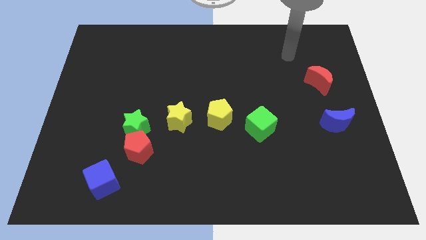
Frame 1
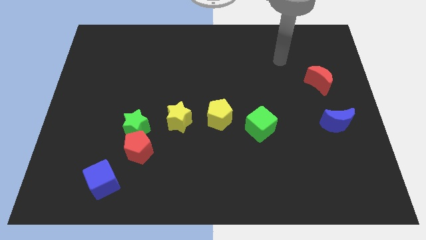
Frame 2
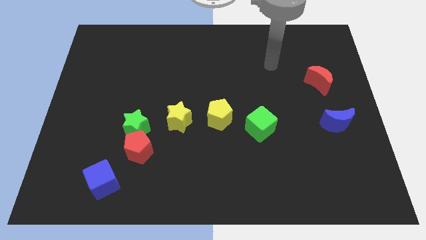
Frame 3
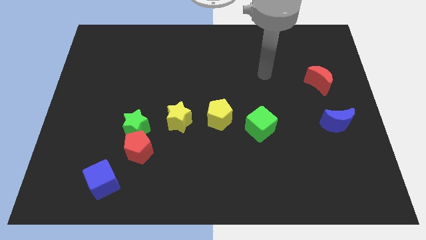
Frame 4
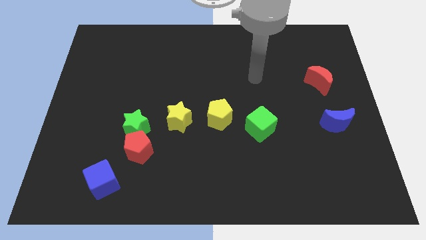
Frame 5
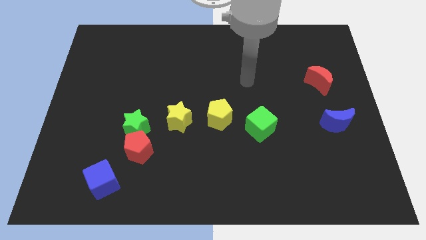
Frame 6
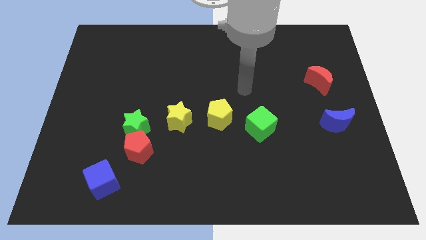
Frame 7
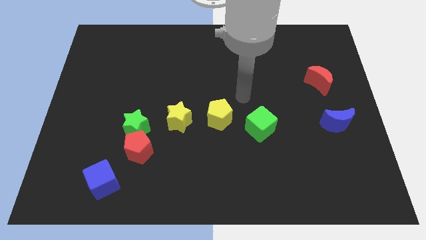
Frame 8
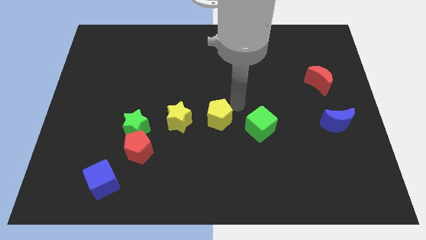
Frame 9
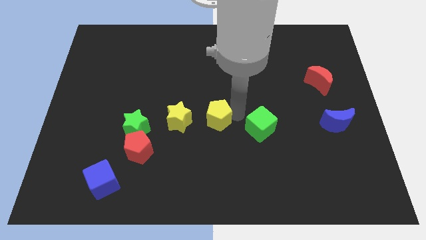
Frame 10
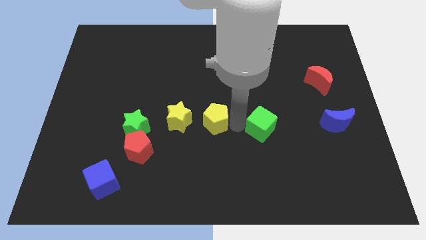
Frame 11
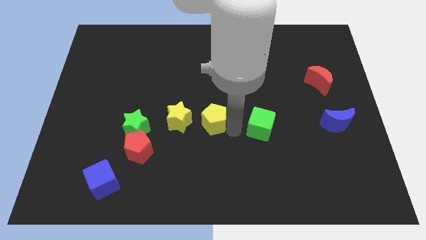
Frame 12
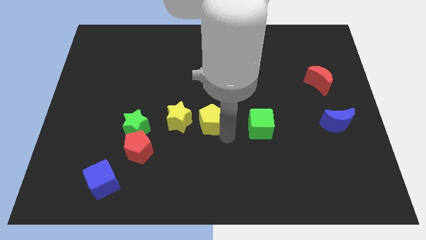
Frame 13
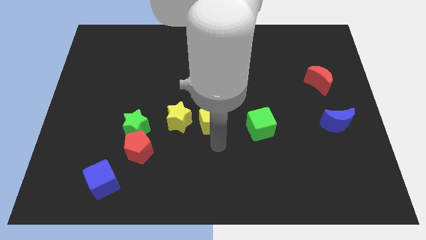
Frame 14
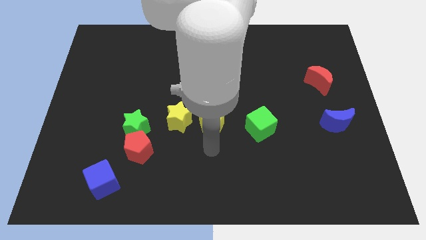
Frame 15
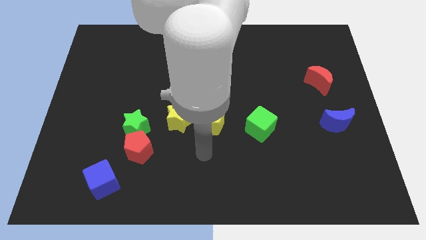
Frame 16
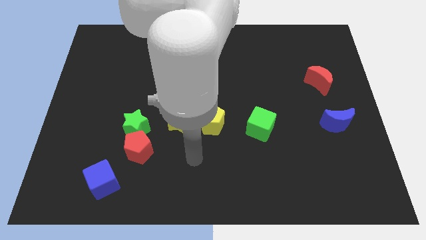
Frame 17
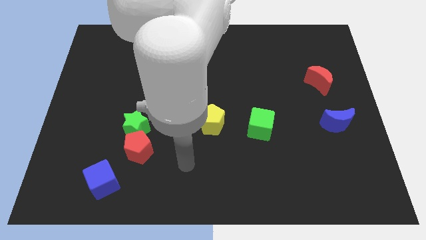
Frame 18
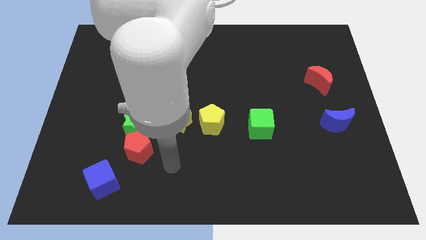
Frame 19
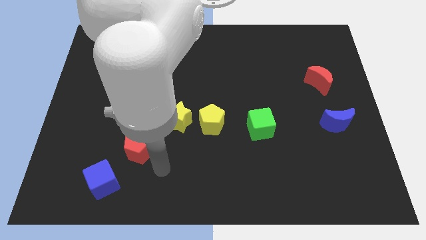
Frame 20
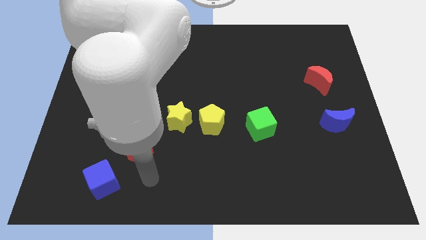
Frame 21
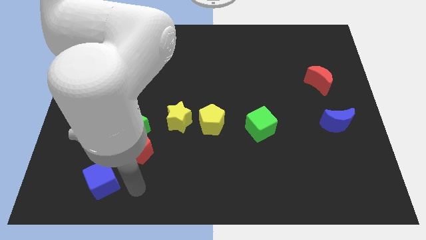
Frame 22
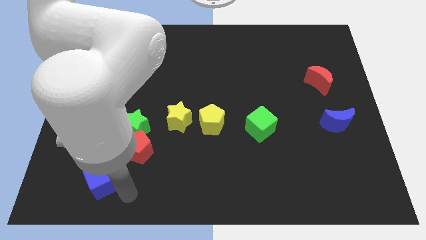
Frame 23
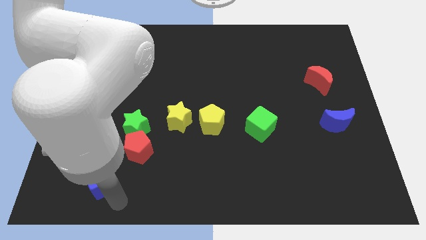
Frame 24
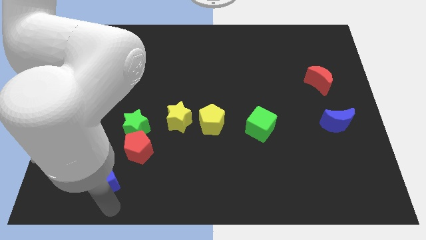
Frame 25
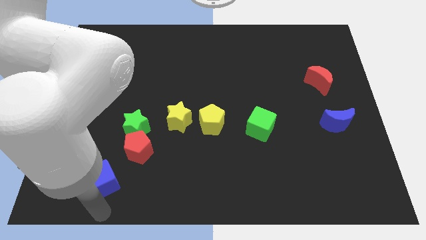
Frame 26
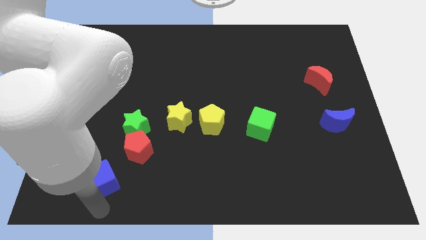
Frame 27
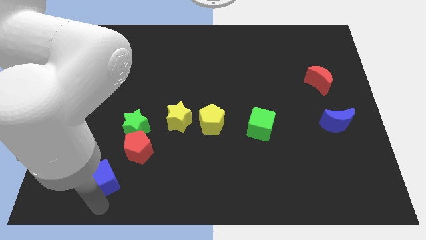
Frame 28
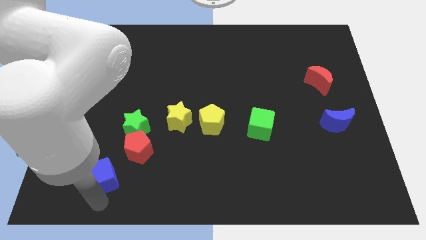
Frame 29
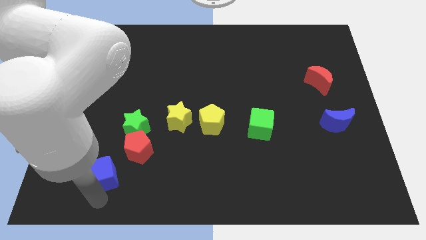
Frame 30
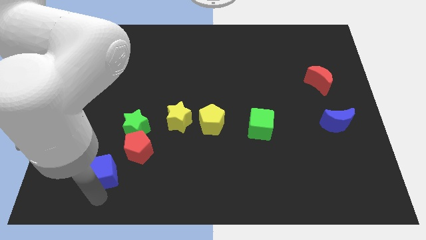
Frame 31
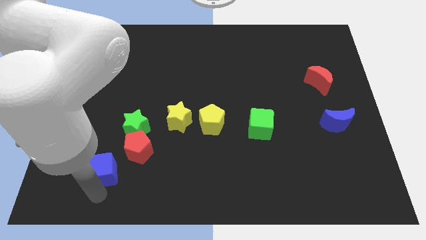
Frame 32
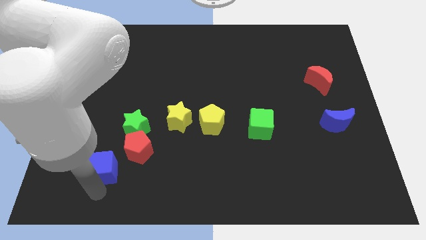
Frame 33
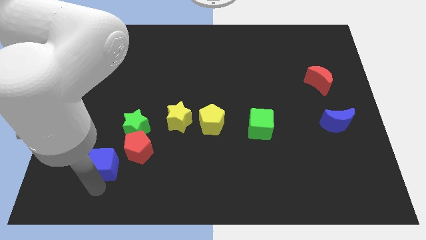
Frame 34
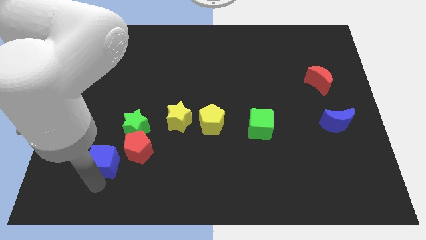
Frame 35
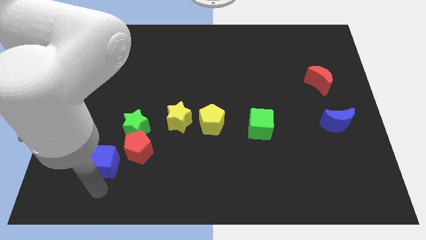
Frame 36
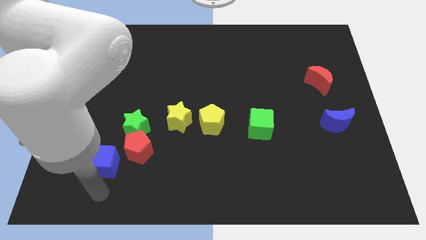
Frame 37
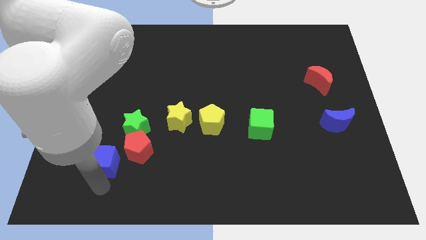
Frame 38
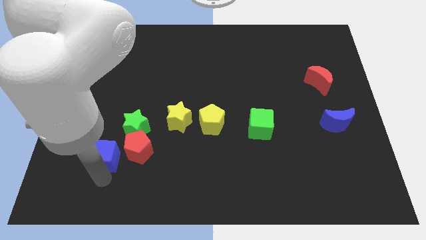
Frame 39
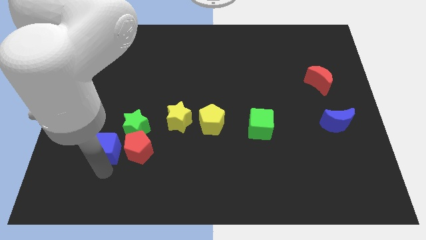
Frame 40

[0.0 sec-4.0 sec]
move the blue cube slightly up

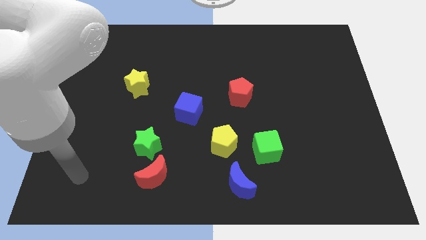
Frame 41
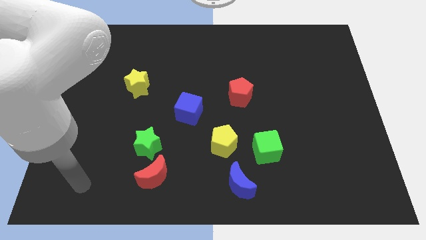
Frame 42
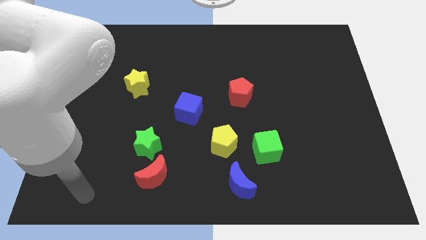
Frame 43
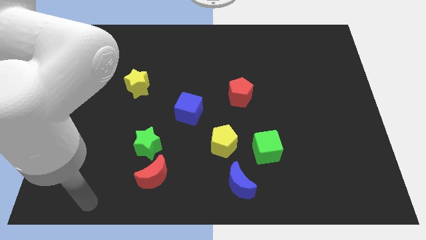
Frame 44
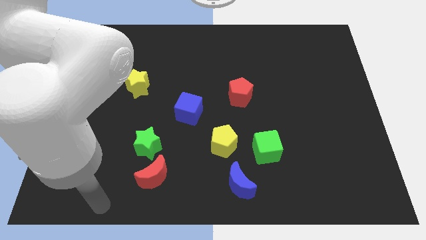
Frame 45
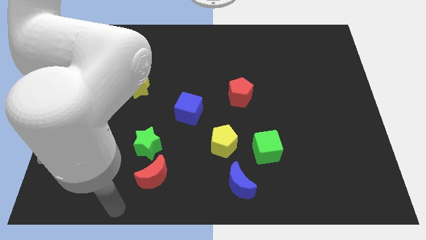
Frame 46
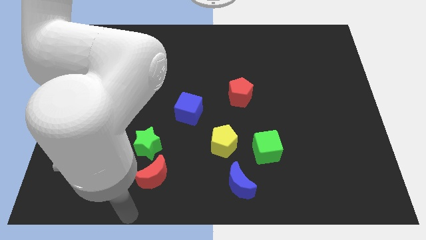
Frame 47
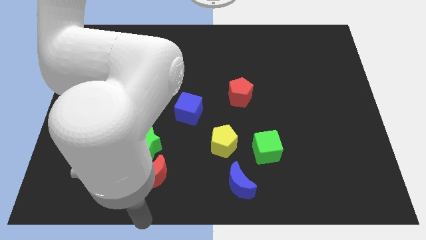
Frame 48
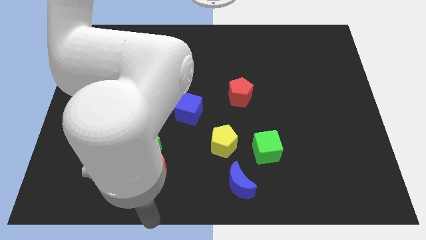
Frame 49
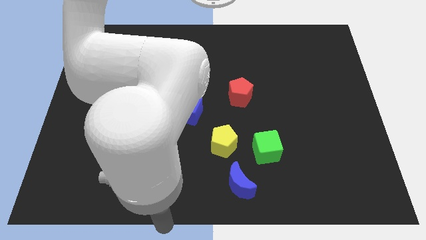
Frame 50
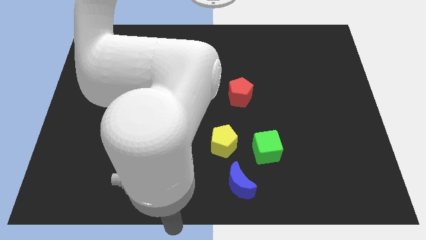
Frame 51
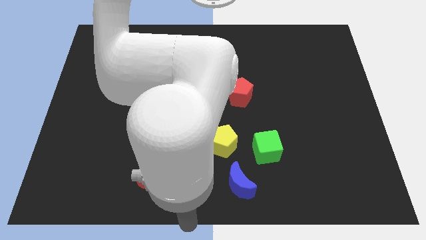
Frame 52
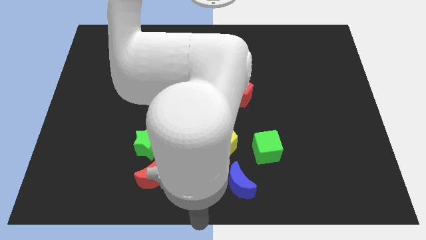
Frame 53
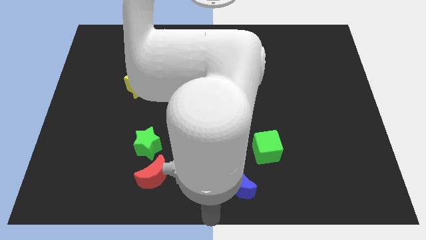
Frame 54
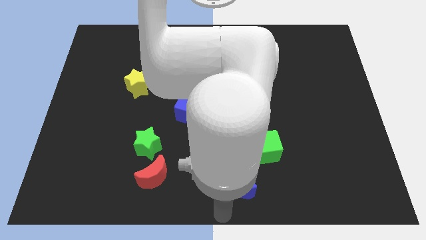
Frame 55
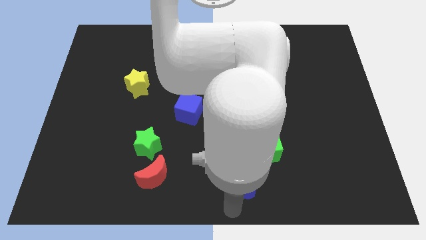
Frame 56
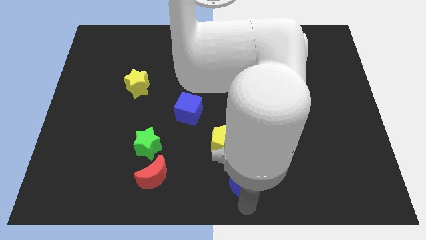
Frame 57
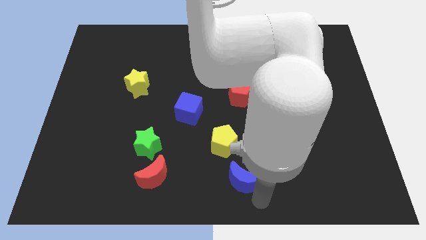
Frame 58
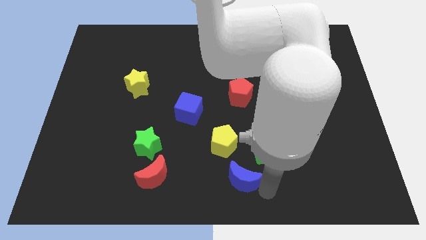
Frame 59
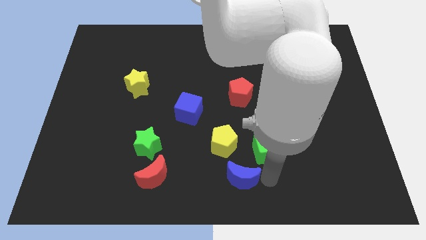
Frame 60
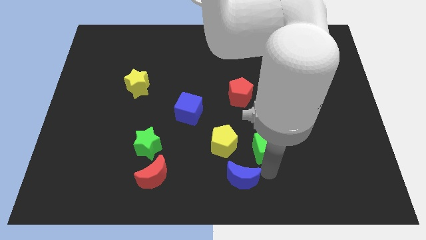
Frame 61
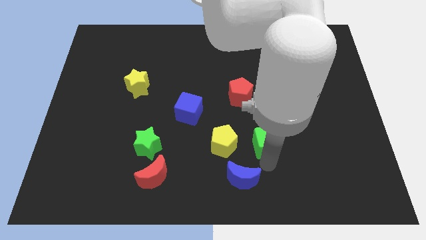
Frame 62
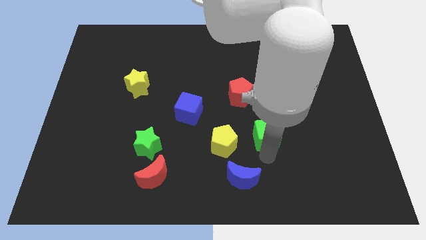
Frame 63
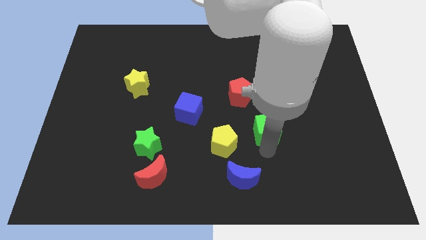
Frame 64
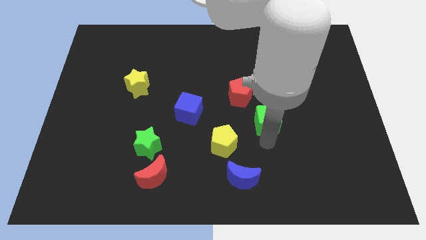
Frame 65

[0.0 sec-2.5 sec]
move the green cube a little bit upwards

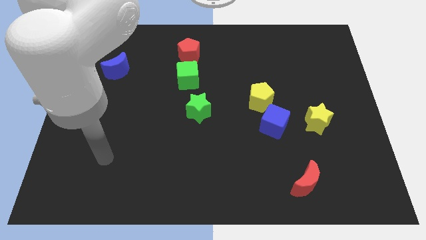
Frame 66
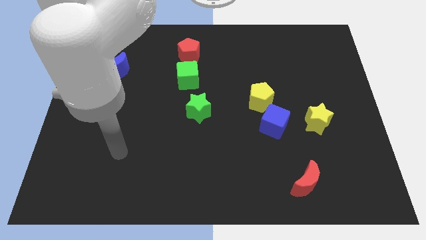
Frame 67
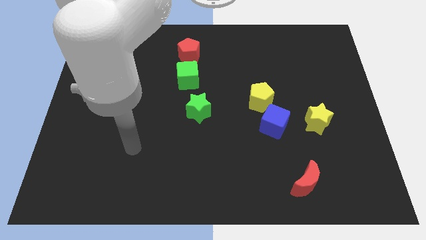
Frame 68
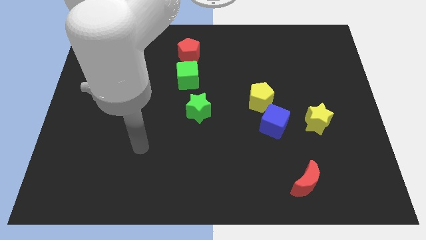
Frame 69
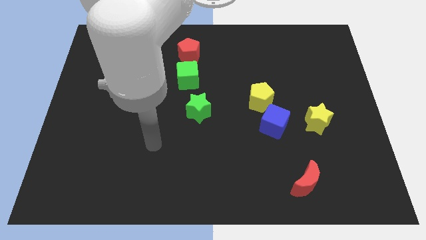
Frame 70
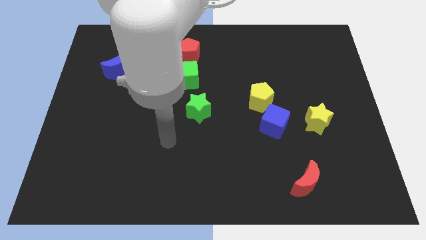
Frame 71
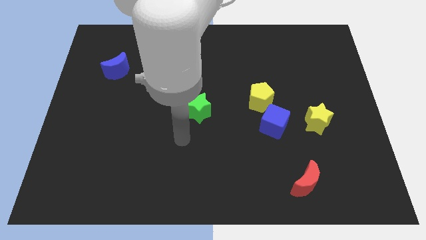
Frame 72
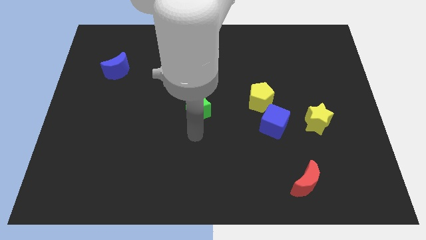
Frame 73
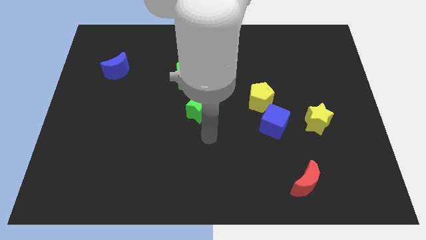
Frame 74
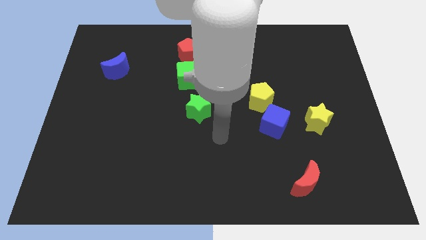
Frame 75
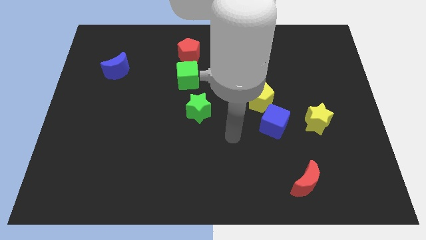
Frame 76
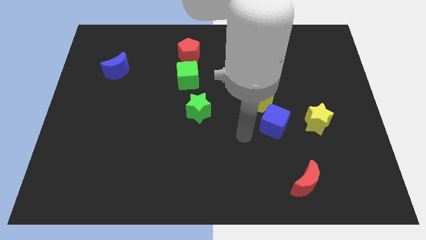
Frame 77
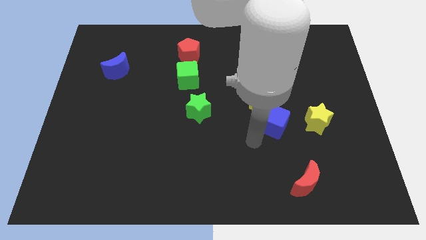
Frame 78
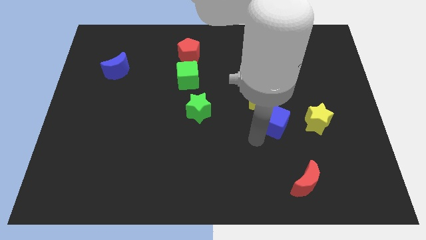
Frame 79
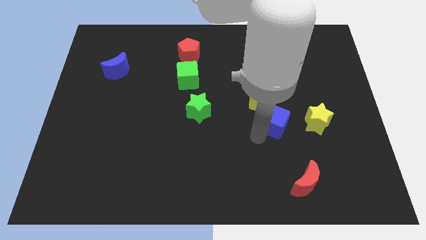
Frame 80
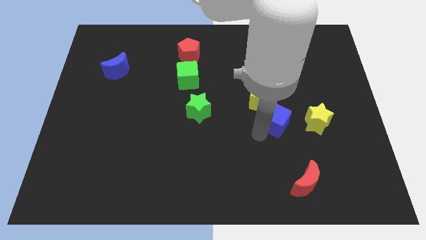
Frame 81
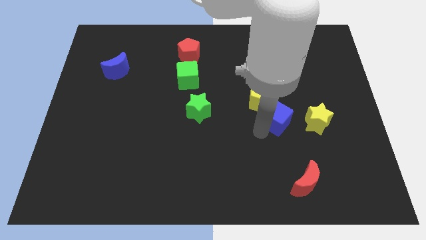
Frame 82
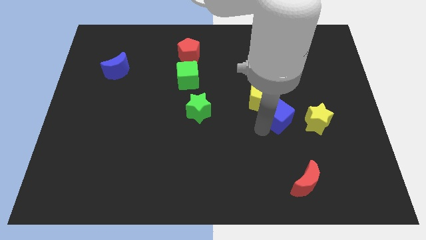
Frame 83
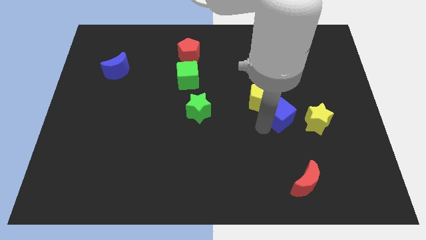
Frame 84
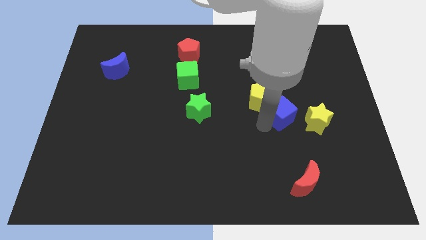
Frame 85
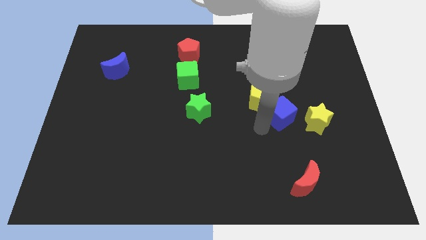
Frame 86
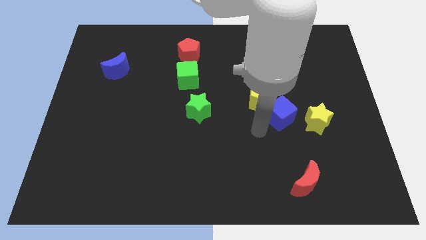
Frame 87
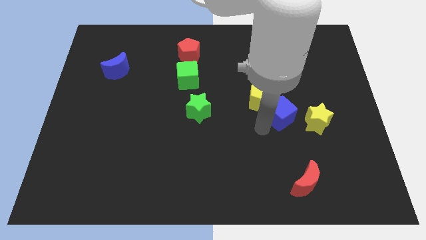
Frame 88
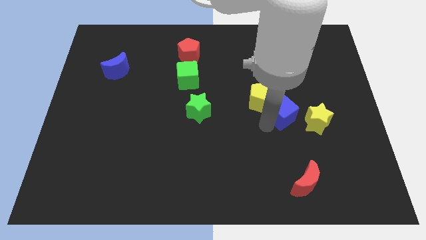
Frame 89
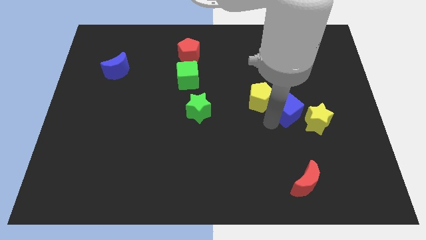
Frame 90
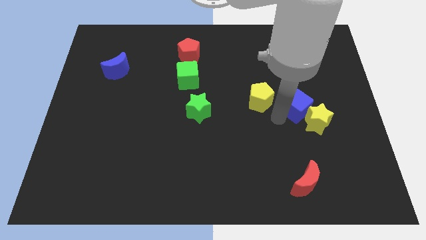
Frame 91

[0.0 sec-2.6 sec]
push the blue cube diagonally upwards and to the right a bit
